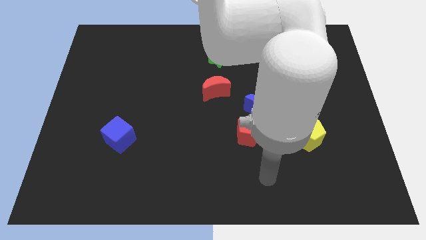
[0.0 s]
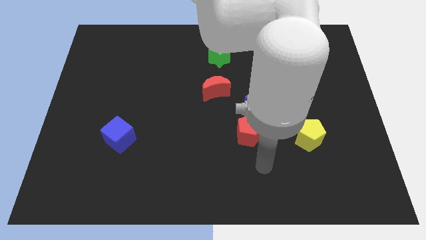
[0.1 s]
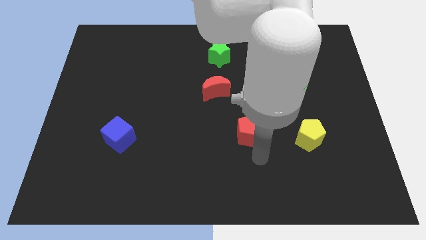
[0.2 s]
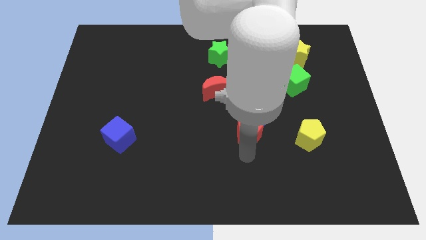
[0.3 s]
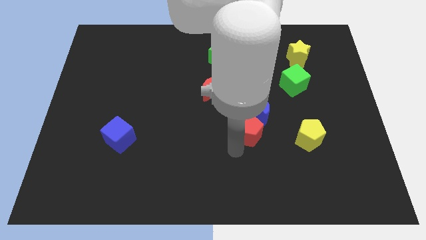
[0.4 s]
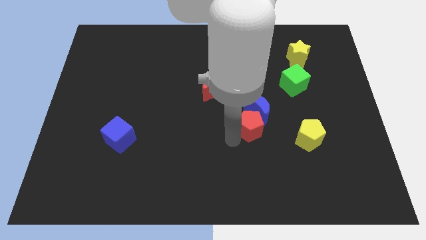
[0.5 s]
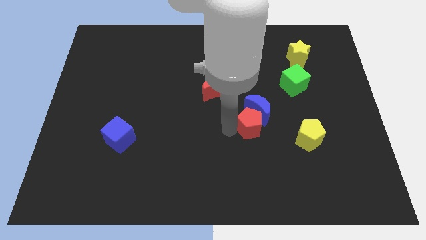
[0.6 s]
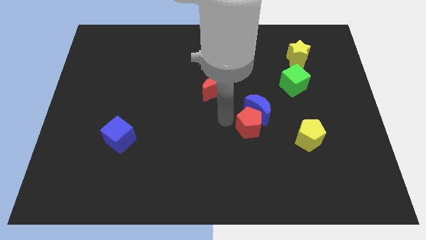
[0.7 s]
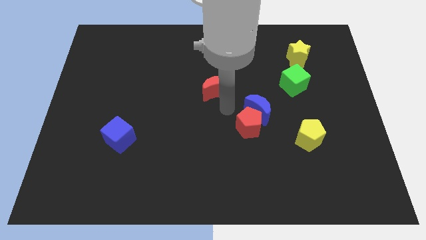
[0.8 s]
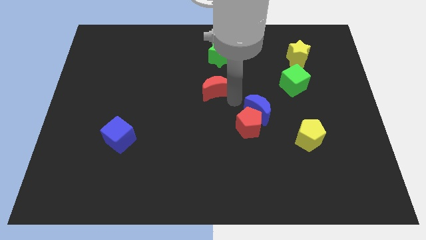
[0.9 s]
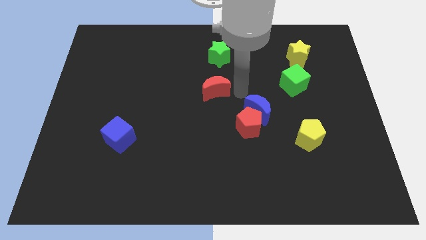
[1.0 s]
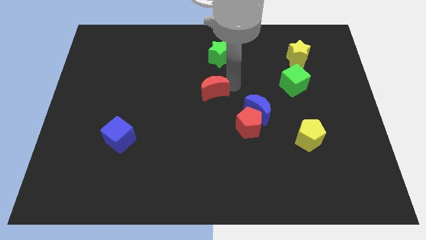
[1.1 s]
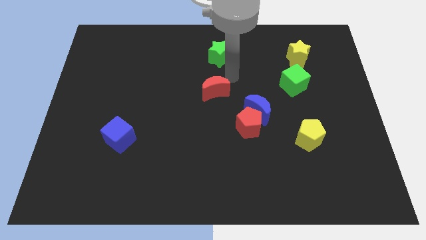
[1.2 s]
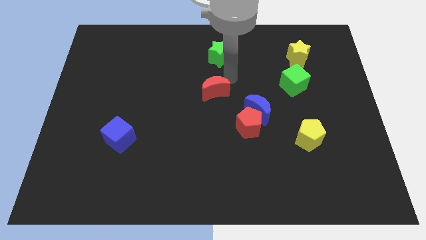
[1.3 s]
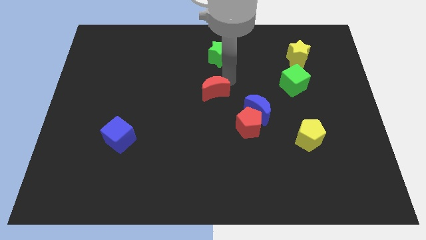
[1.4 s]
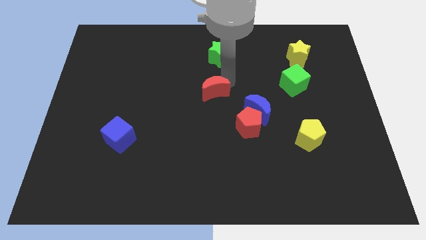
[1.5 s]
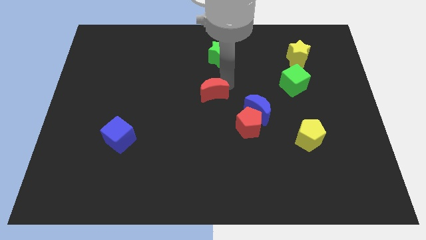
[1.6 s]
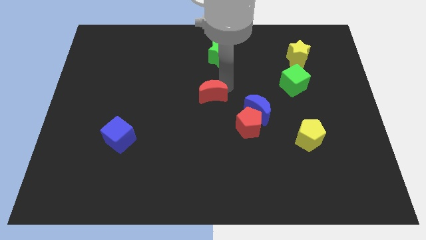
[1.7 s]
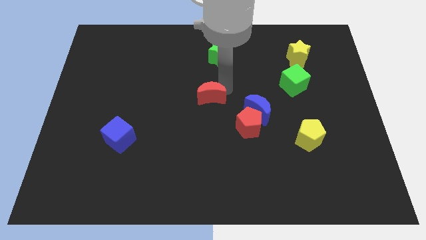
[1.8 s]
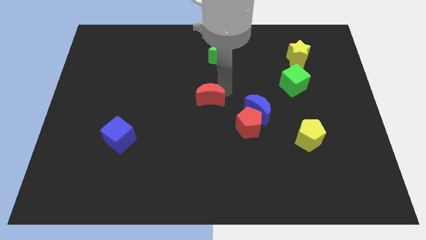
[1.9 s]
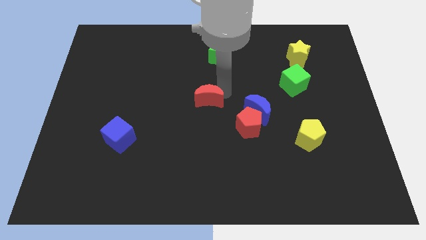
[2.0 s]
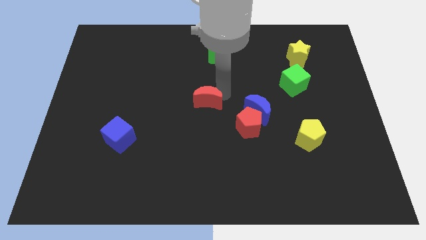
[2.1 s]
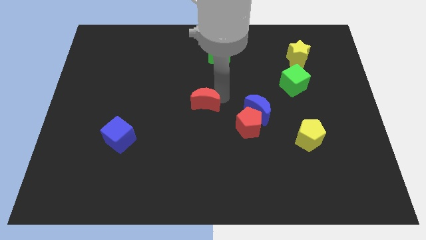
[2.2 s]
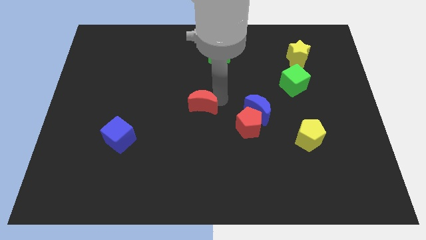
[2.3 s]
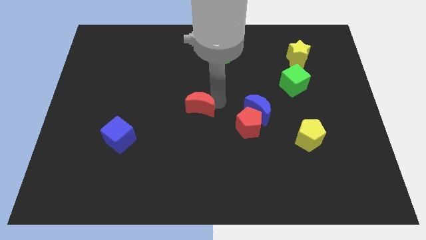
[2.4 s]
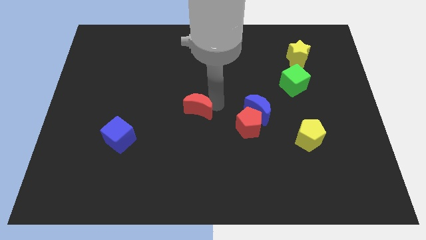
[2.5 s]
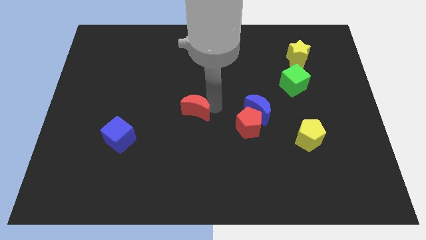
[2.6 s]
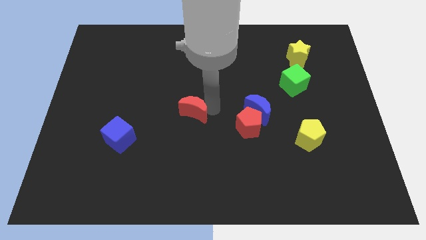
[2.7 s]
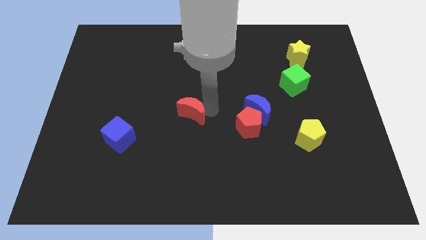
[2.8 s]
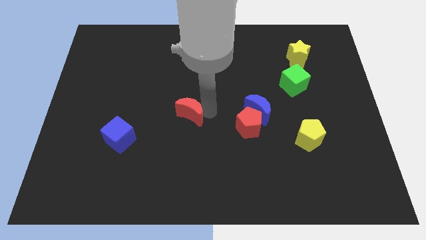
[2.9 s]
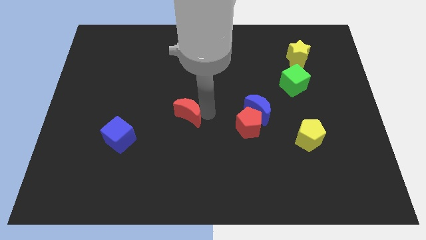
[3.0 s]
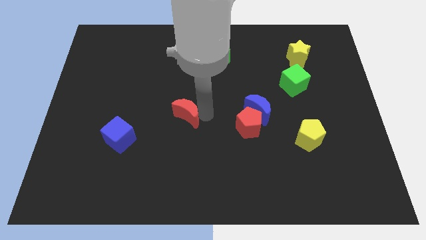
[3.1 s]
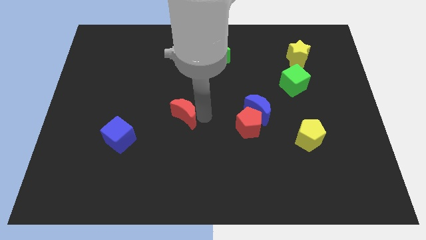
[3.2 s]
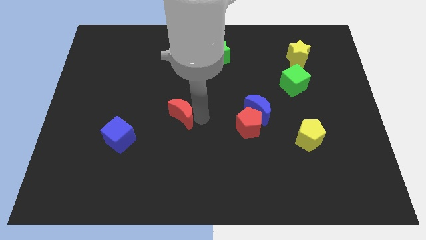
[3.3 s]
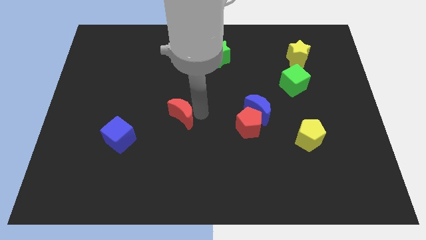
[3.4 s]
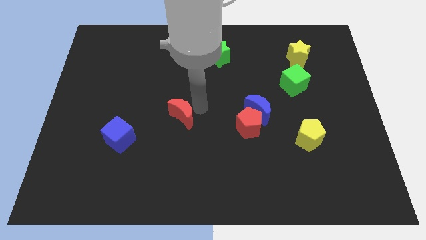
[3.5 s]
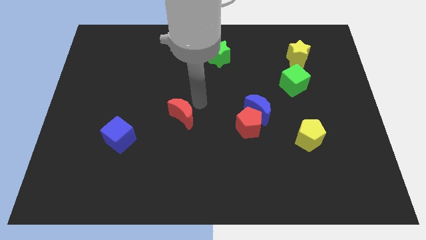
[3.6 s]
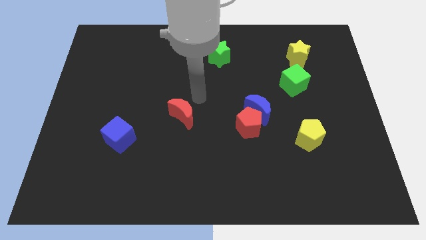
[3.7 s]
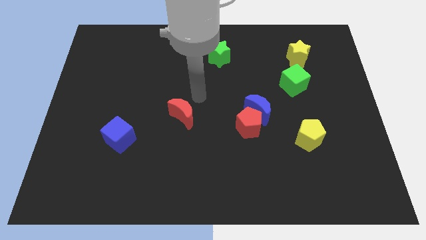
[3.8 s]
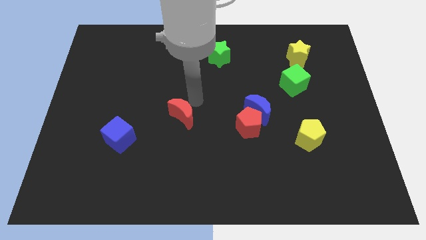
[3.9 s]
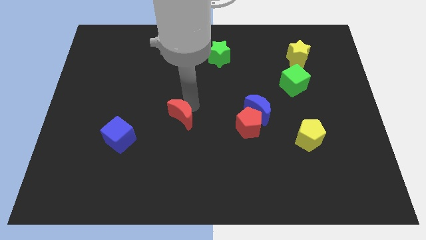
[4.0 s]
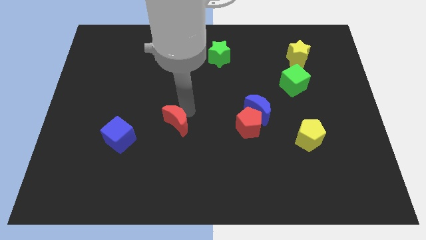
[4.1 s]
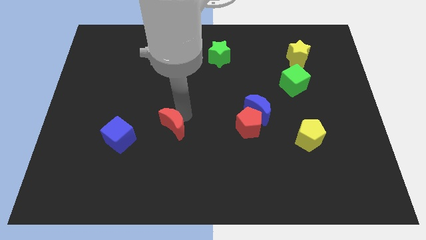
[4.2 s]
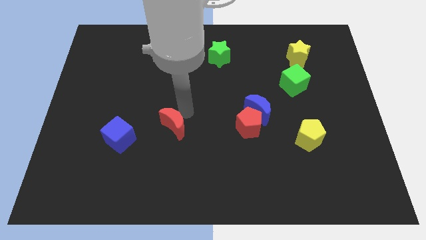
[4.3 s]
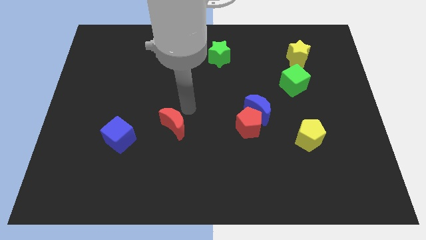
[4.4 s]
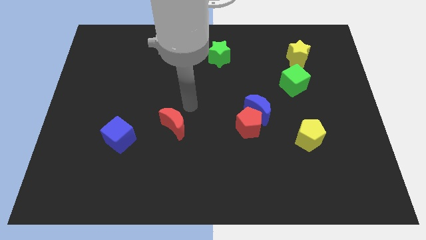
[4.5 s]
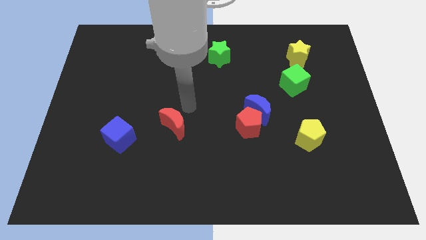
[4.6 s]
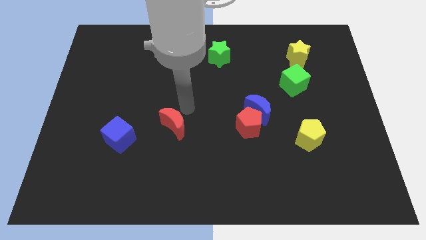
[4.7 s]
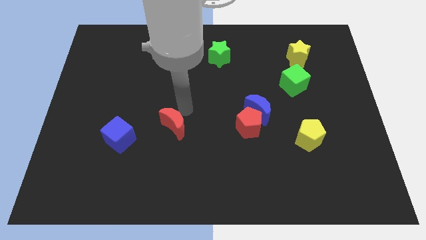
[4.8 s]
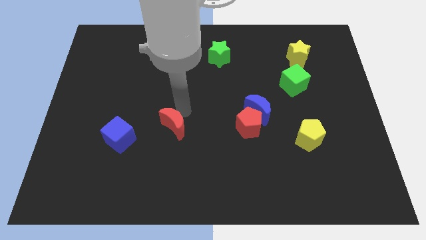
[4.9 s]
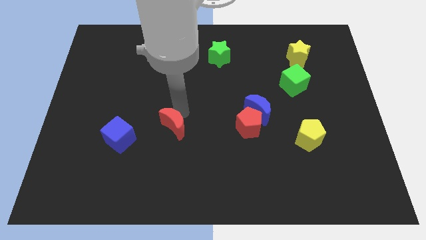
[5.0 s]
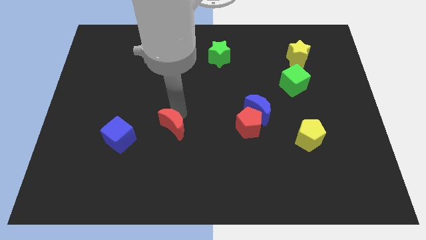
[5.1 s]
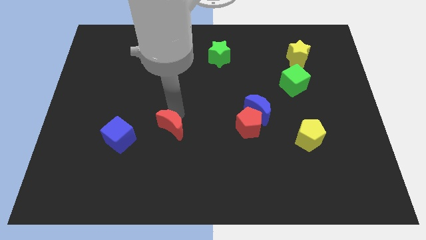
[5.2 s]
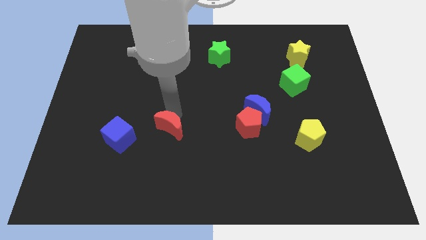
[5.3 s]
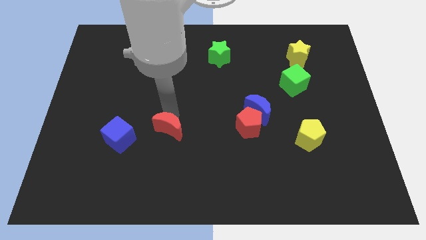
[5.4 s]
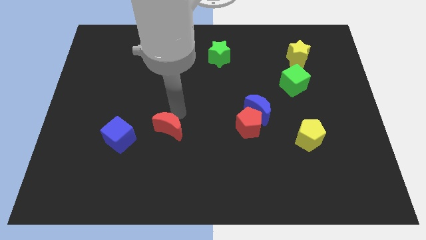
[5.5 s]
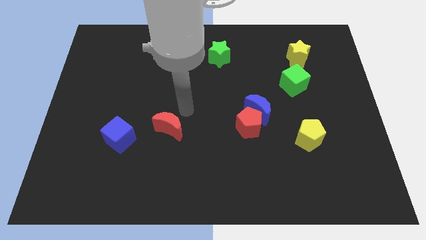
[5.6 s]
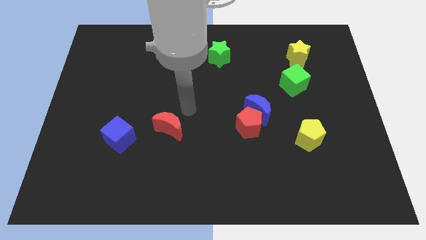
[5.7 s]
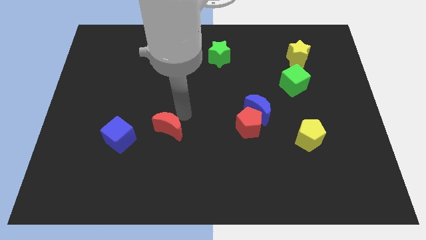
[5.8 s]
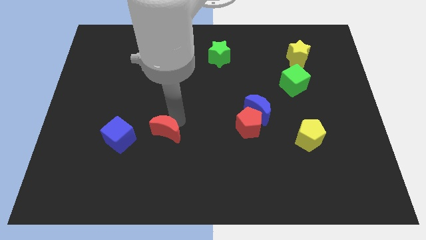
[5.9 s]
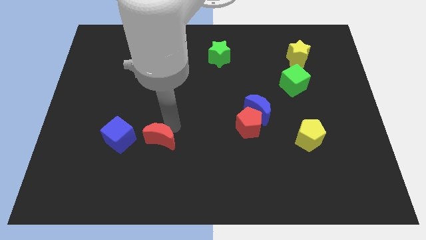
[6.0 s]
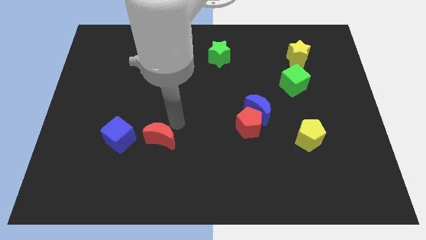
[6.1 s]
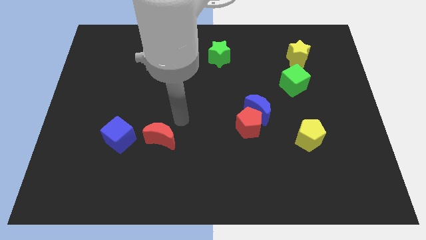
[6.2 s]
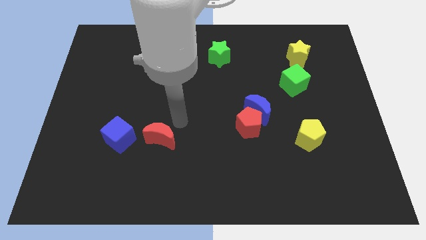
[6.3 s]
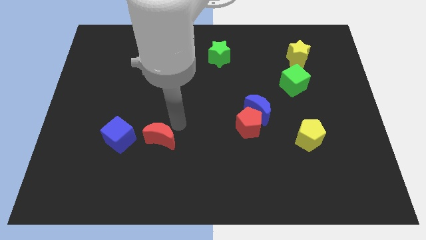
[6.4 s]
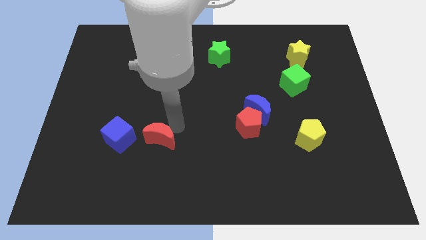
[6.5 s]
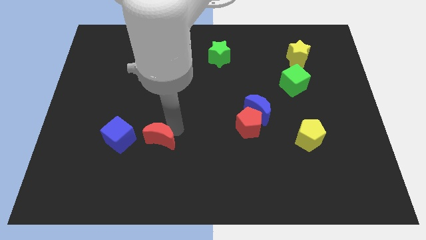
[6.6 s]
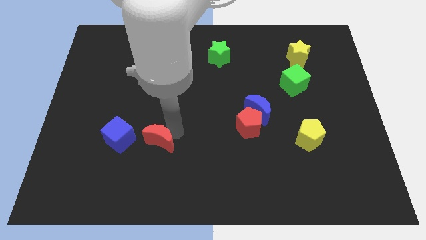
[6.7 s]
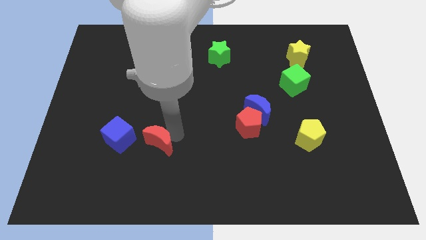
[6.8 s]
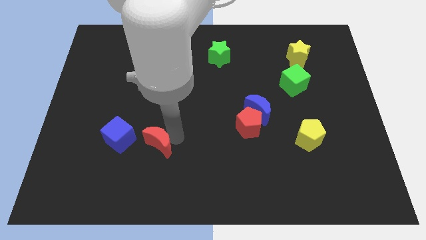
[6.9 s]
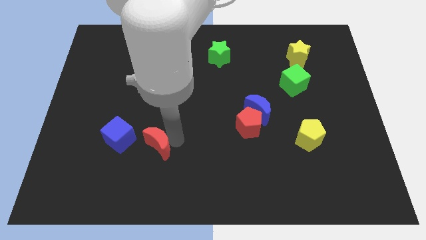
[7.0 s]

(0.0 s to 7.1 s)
slide the red moon diagonally down and to the right of the blue cube
